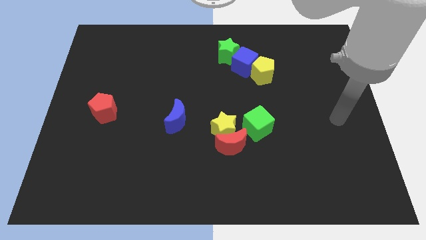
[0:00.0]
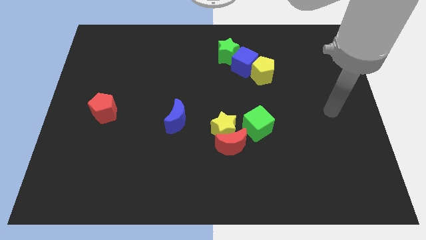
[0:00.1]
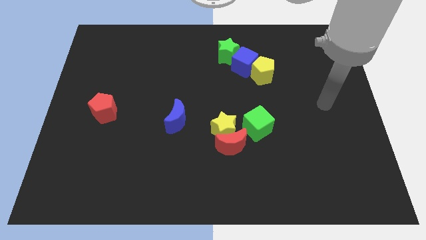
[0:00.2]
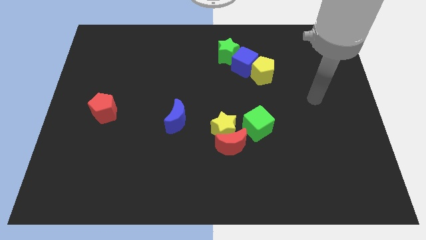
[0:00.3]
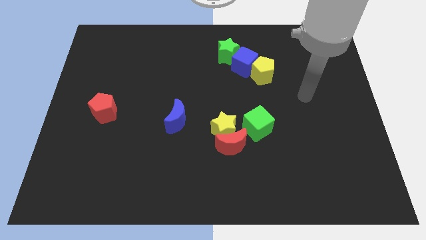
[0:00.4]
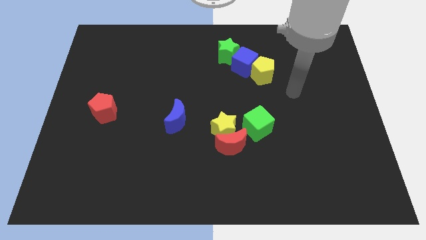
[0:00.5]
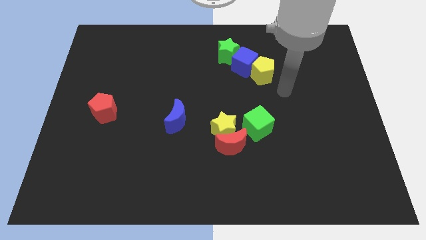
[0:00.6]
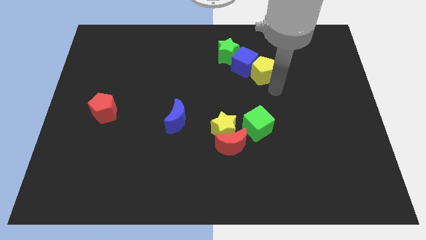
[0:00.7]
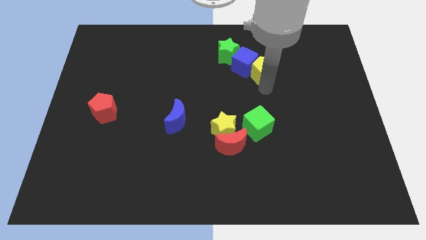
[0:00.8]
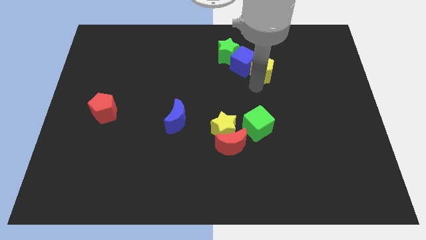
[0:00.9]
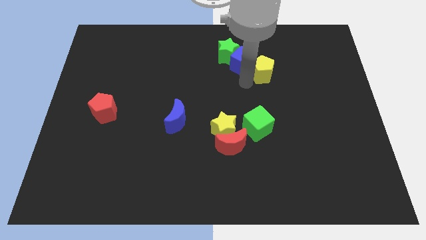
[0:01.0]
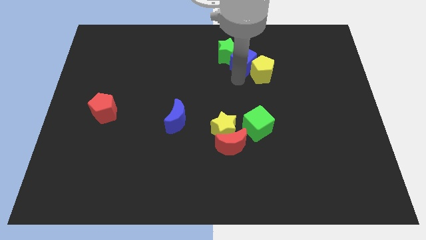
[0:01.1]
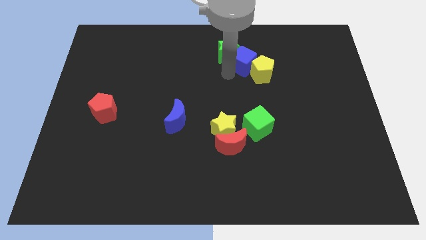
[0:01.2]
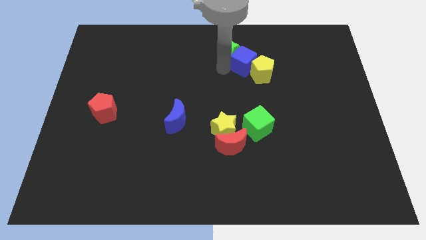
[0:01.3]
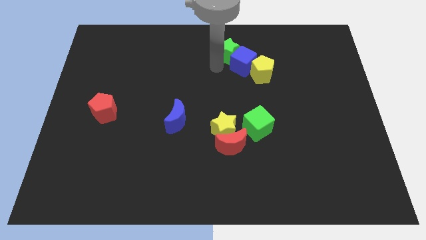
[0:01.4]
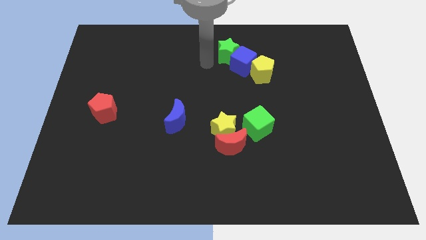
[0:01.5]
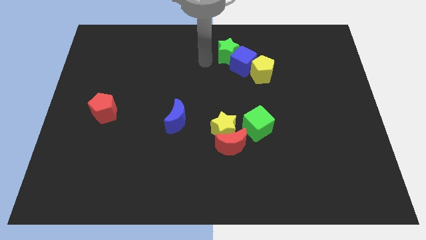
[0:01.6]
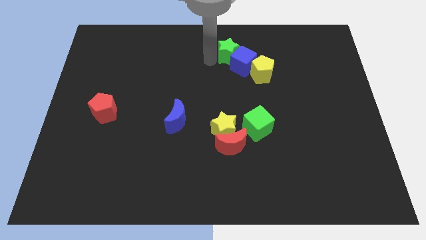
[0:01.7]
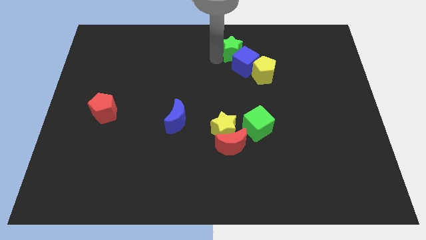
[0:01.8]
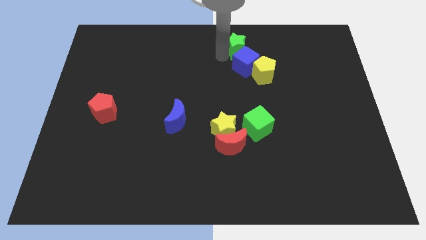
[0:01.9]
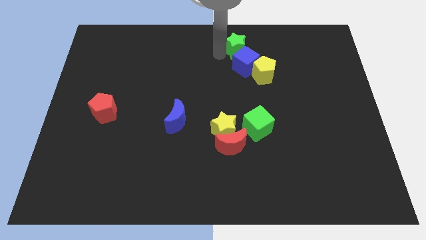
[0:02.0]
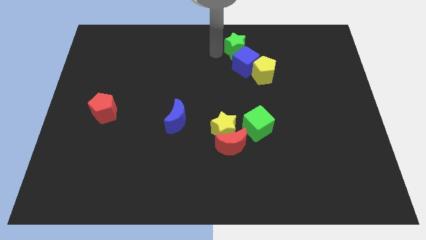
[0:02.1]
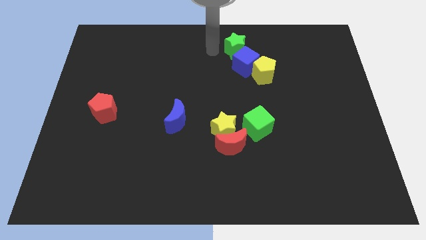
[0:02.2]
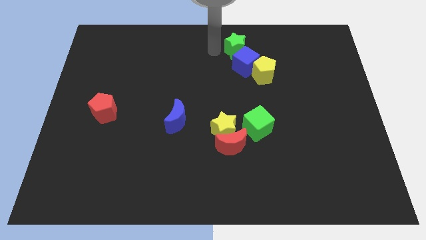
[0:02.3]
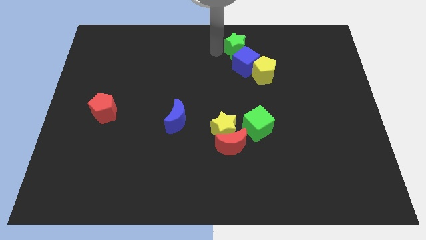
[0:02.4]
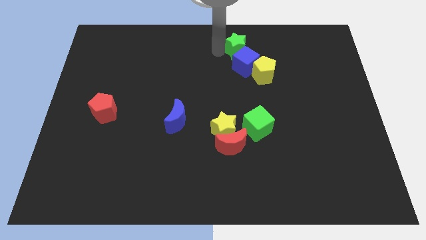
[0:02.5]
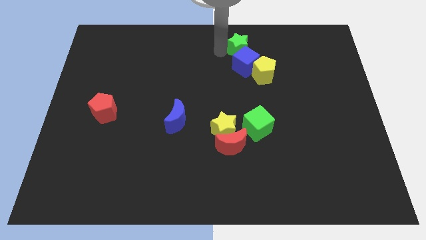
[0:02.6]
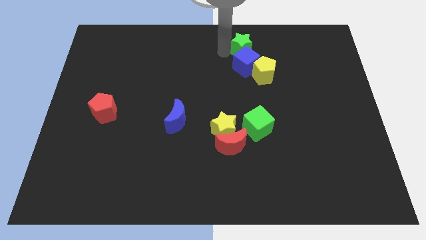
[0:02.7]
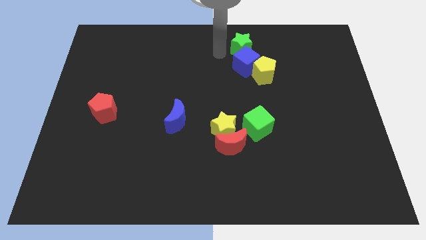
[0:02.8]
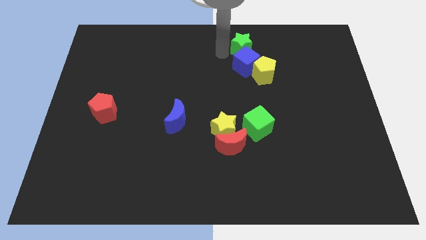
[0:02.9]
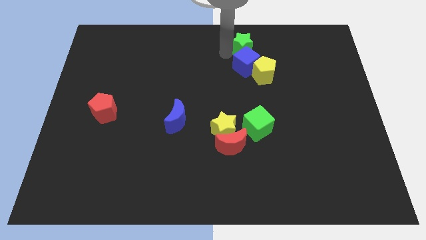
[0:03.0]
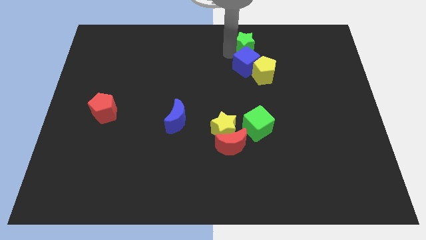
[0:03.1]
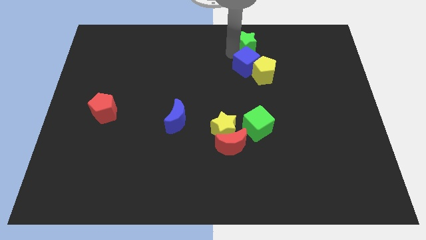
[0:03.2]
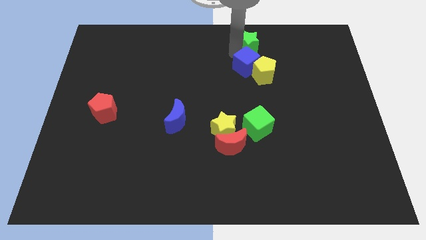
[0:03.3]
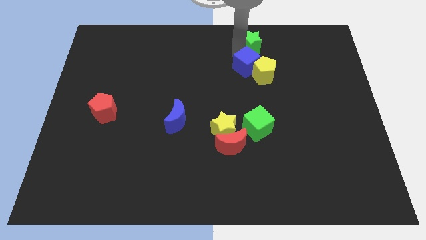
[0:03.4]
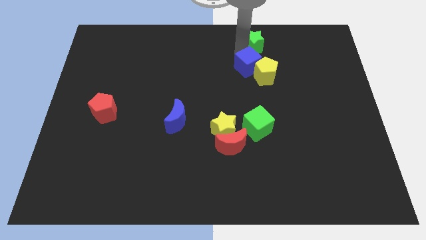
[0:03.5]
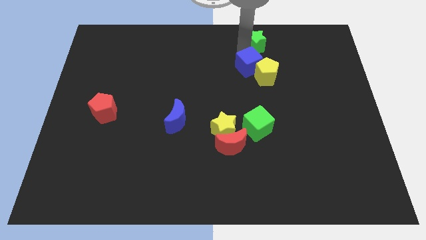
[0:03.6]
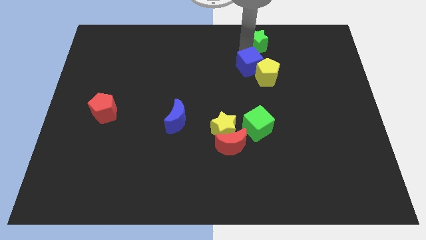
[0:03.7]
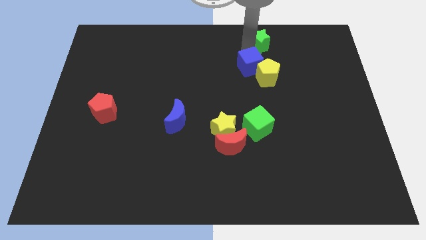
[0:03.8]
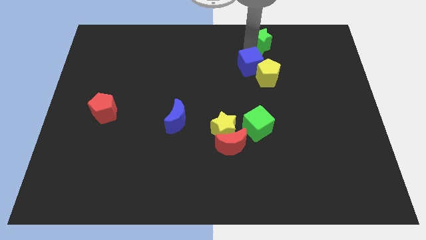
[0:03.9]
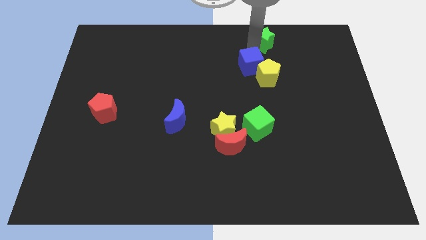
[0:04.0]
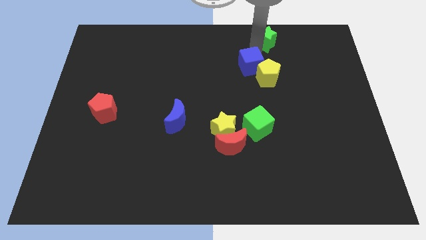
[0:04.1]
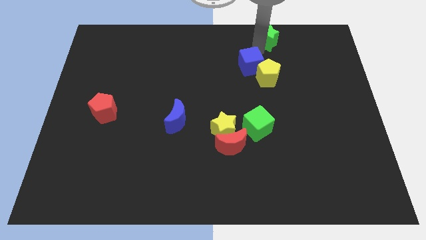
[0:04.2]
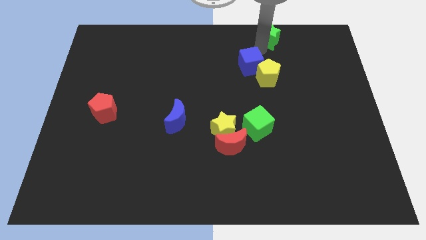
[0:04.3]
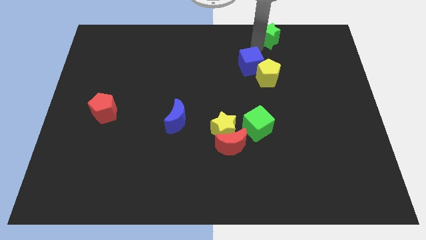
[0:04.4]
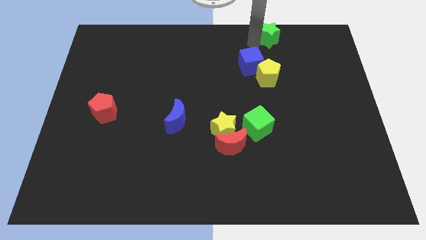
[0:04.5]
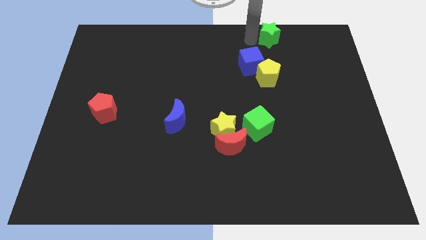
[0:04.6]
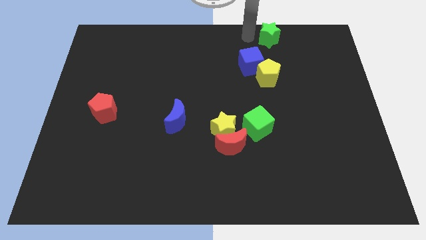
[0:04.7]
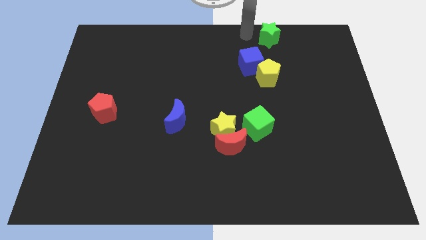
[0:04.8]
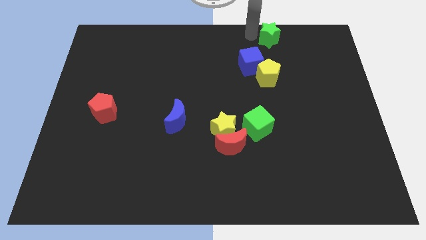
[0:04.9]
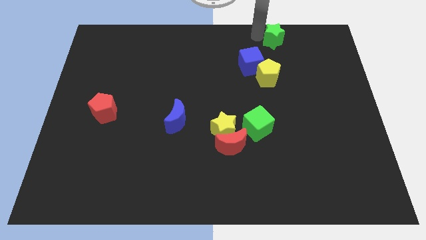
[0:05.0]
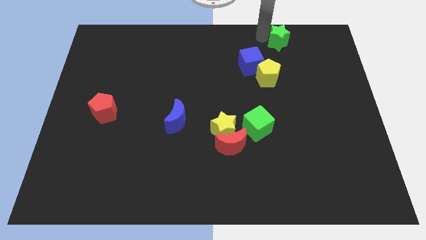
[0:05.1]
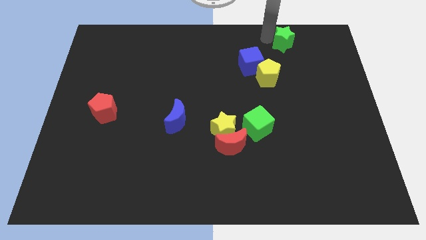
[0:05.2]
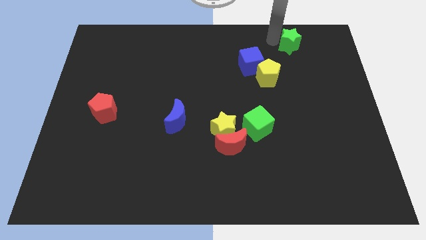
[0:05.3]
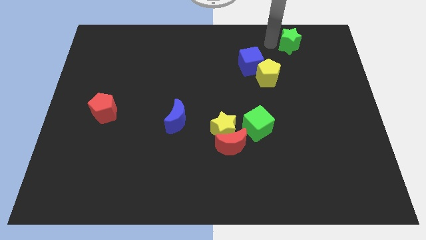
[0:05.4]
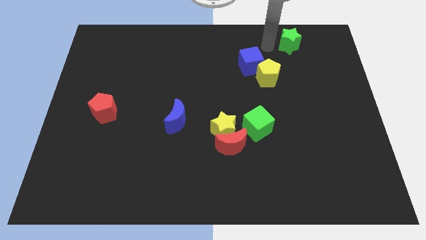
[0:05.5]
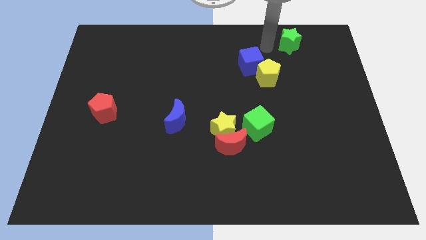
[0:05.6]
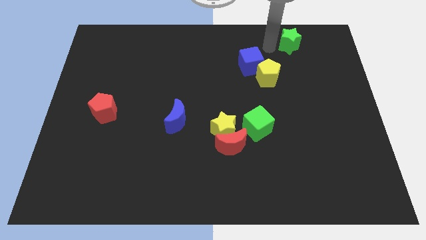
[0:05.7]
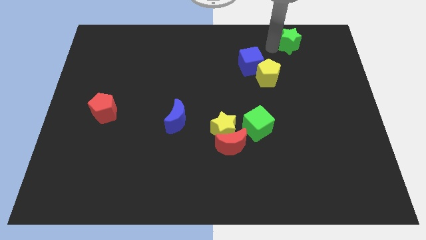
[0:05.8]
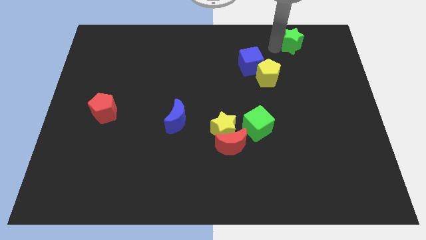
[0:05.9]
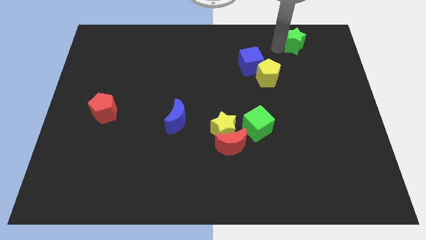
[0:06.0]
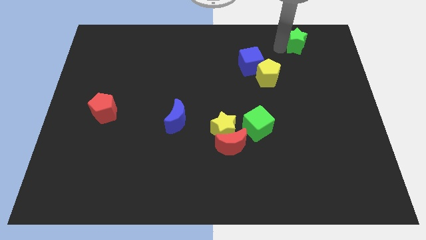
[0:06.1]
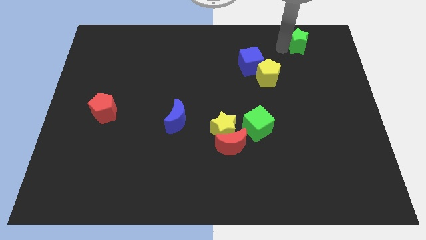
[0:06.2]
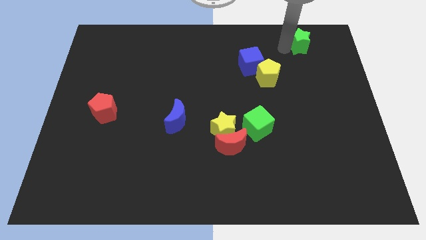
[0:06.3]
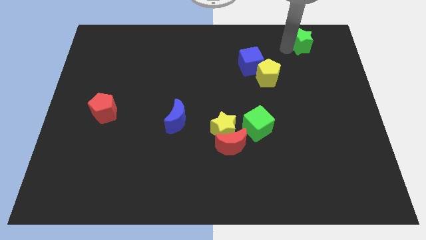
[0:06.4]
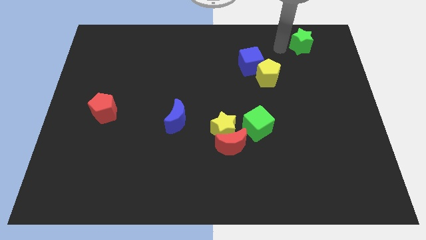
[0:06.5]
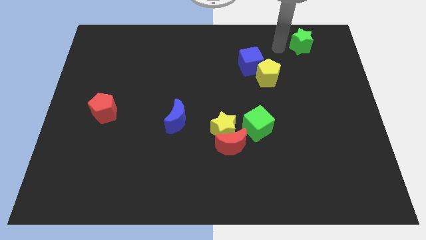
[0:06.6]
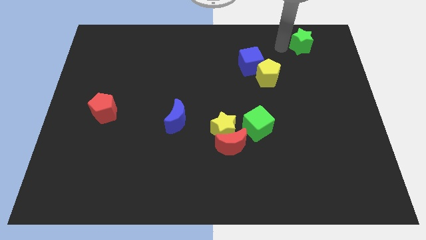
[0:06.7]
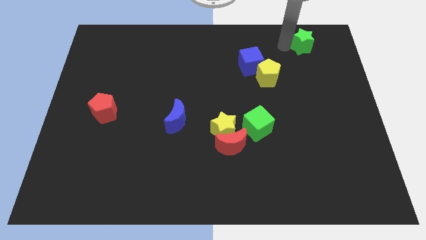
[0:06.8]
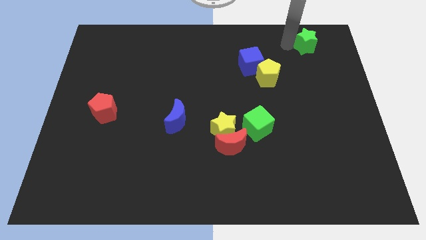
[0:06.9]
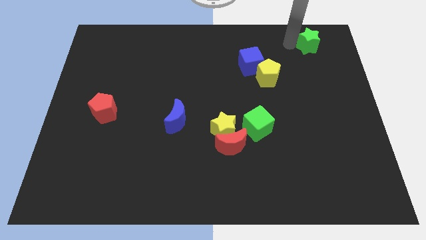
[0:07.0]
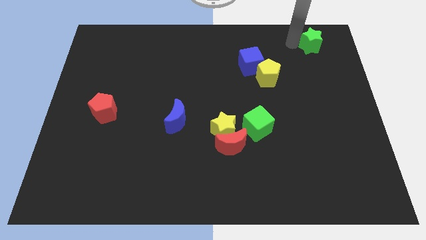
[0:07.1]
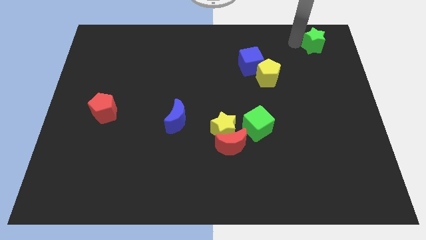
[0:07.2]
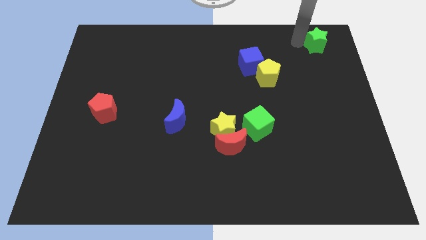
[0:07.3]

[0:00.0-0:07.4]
push the green star to the top right corner
